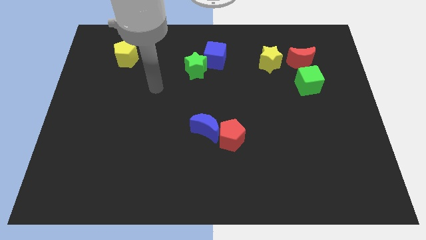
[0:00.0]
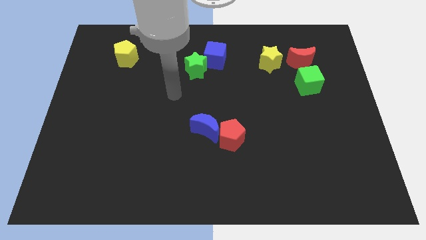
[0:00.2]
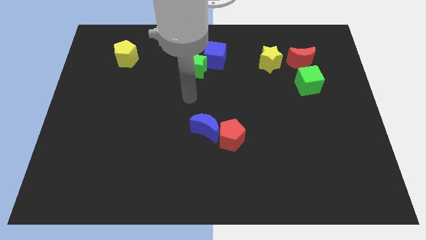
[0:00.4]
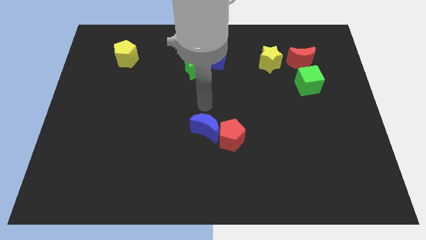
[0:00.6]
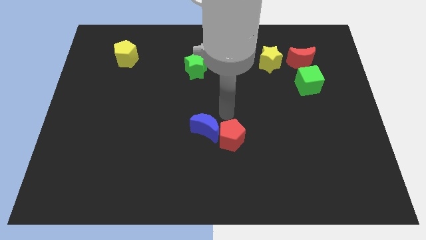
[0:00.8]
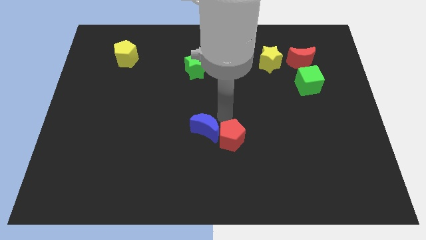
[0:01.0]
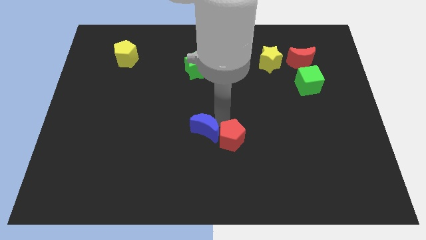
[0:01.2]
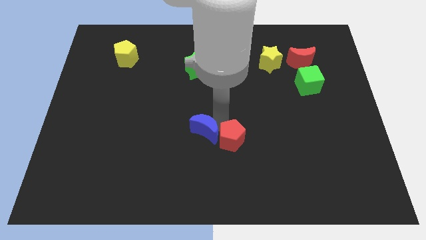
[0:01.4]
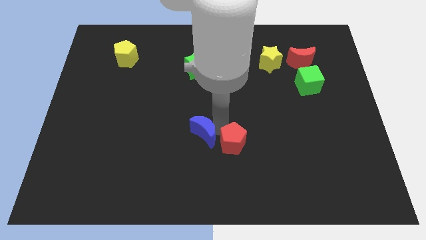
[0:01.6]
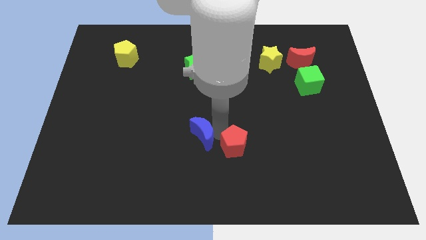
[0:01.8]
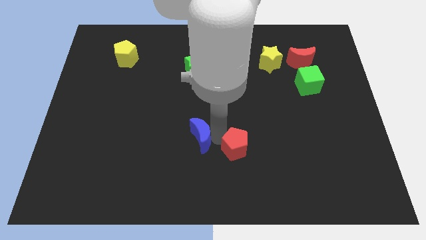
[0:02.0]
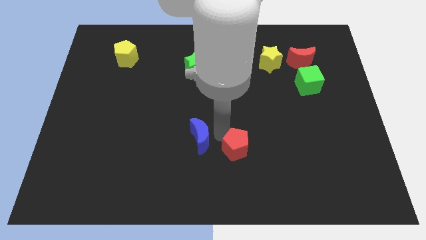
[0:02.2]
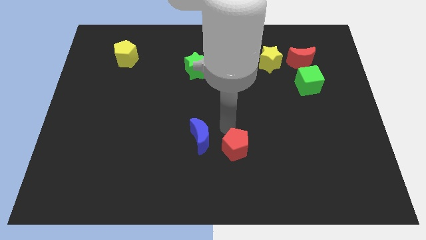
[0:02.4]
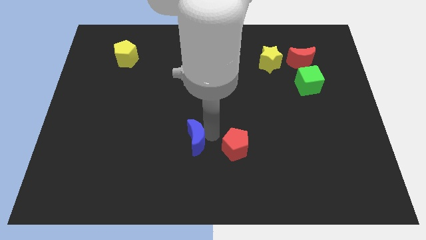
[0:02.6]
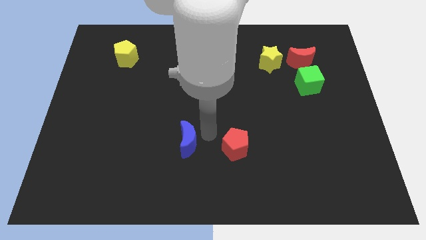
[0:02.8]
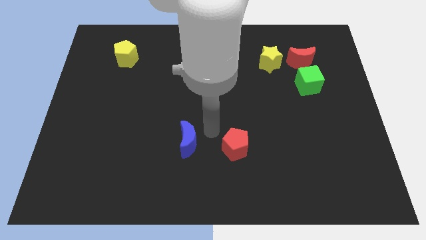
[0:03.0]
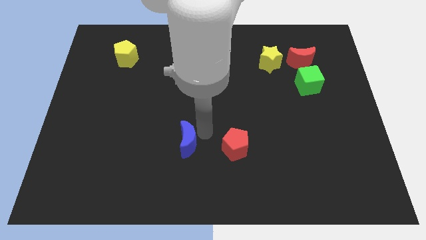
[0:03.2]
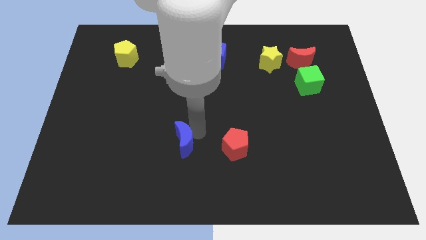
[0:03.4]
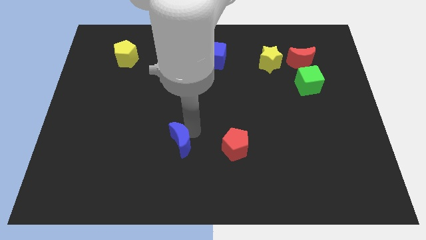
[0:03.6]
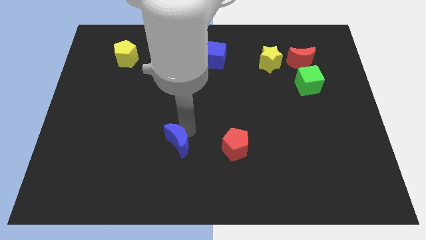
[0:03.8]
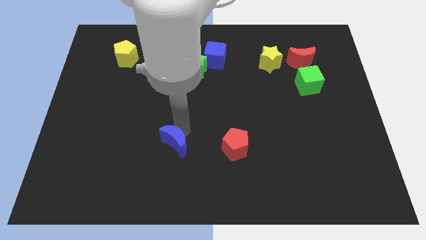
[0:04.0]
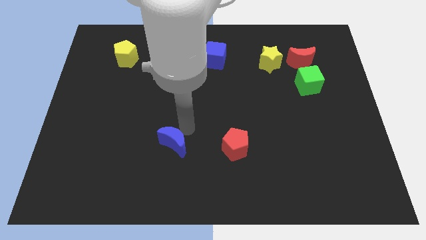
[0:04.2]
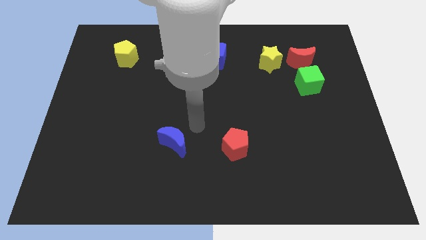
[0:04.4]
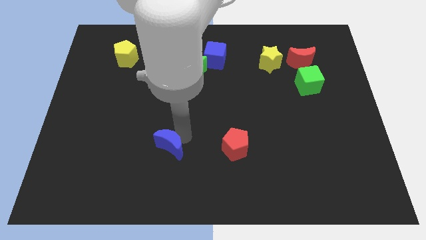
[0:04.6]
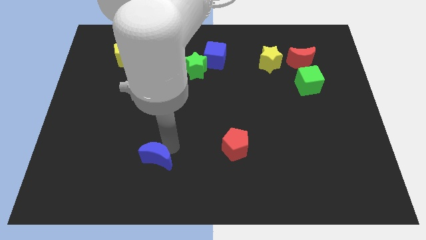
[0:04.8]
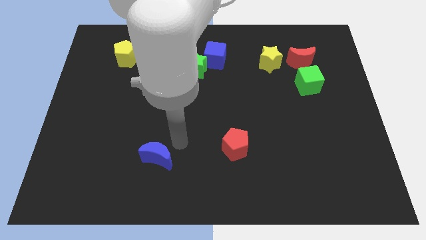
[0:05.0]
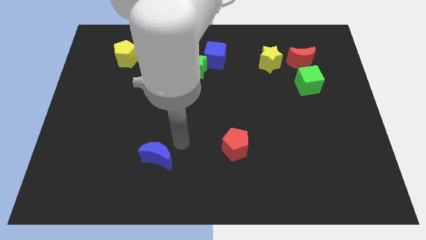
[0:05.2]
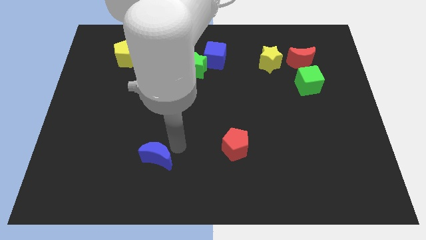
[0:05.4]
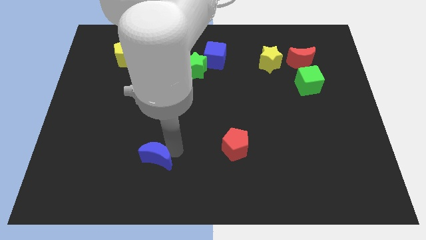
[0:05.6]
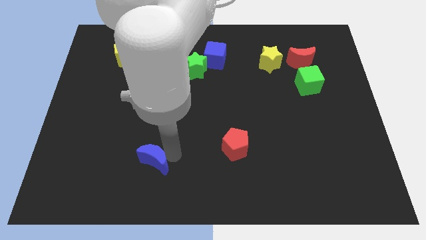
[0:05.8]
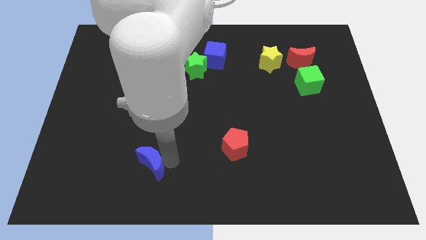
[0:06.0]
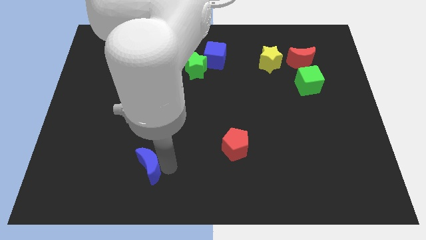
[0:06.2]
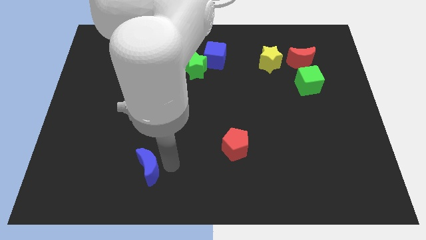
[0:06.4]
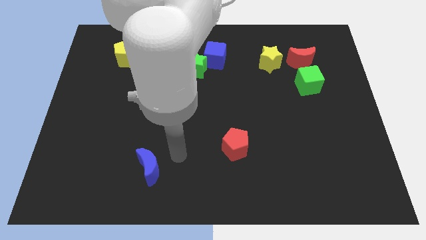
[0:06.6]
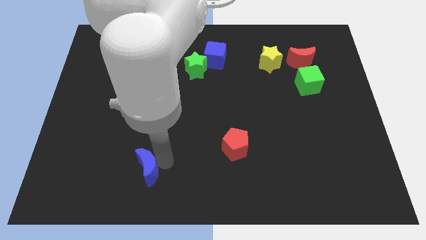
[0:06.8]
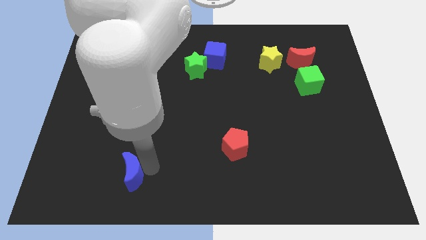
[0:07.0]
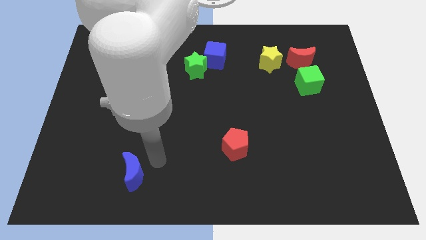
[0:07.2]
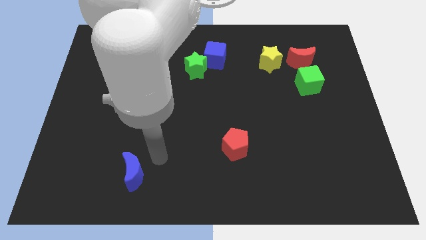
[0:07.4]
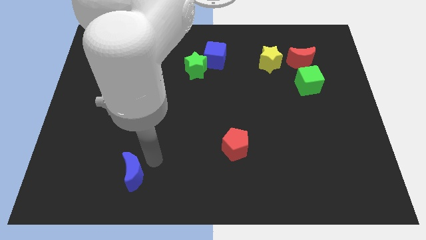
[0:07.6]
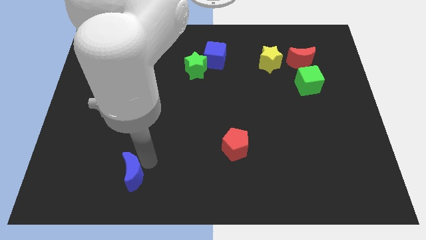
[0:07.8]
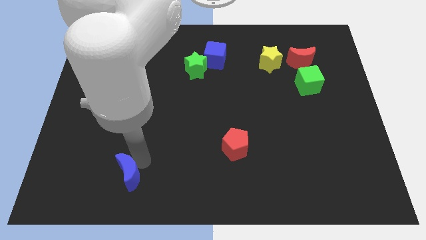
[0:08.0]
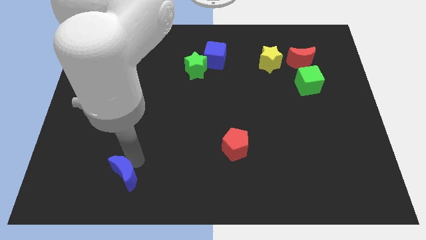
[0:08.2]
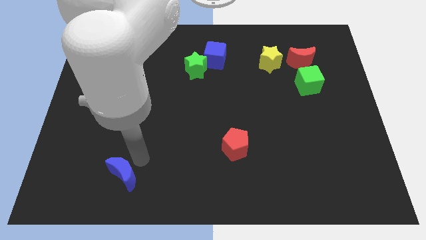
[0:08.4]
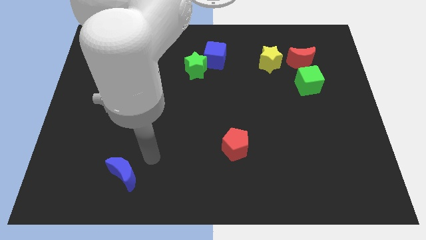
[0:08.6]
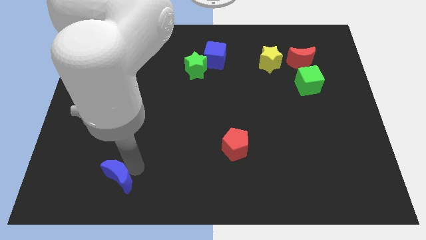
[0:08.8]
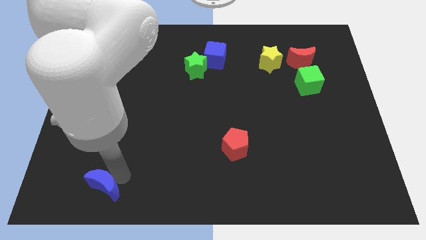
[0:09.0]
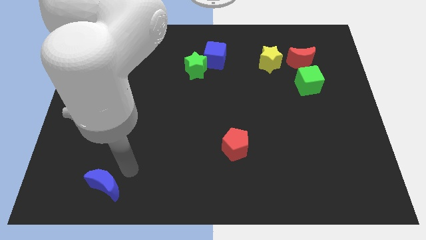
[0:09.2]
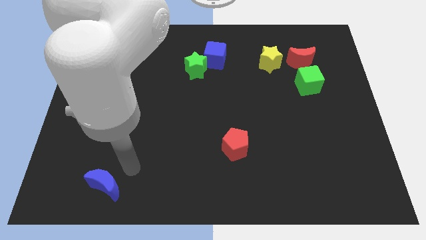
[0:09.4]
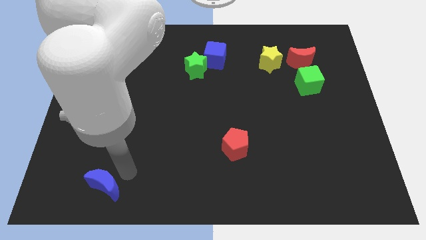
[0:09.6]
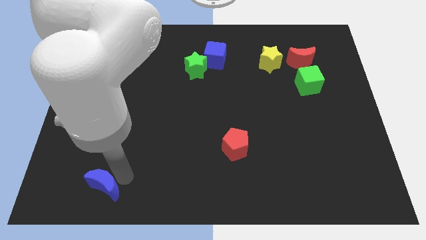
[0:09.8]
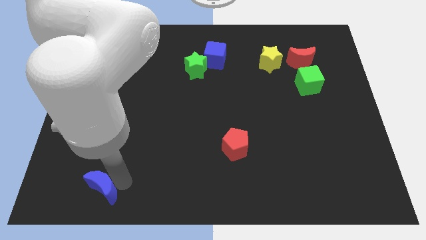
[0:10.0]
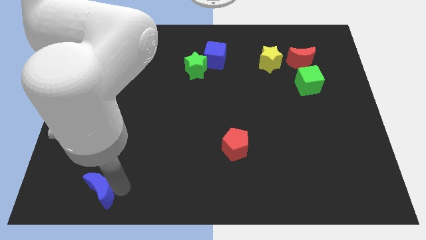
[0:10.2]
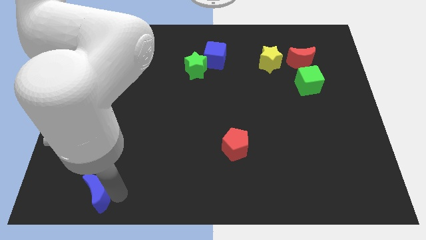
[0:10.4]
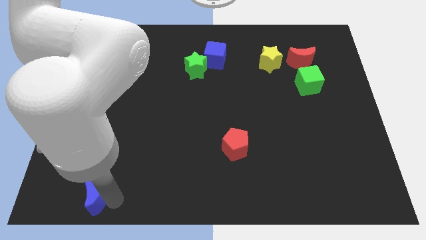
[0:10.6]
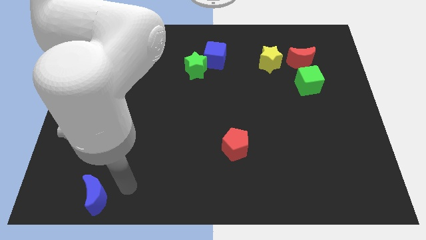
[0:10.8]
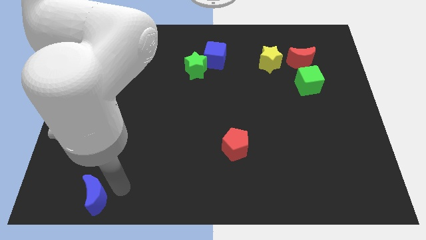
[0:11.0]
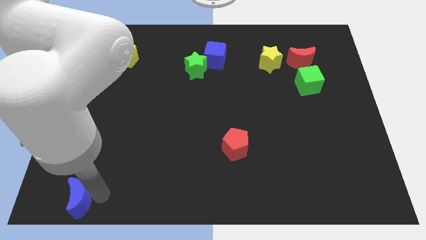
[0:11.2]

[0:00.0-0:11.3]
slide the blue moon to the bottom left corner
